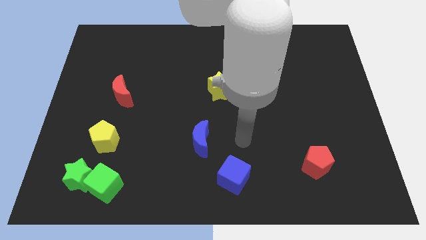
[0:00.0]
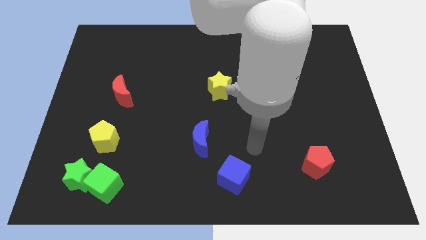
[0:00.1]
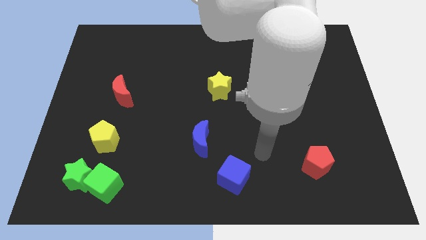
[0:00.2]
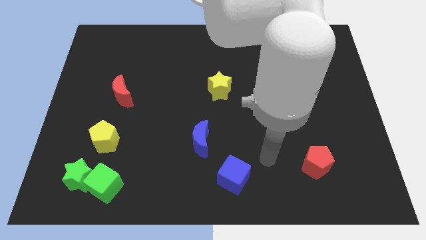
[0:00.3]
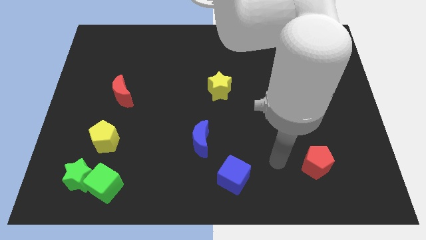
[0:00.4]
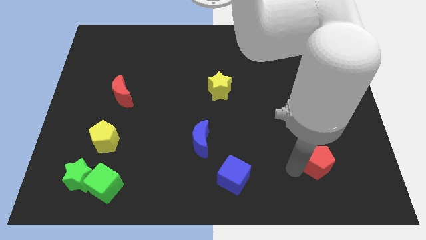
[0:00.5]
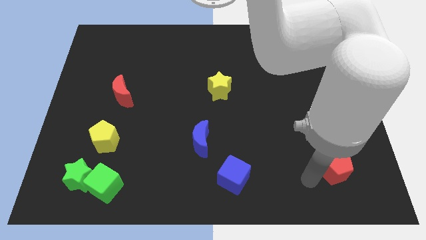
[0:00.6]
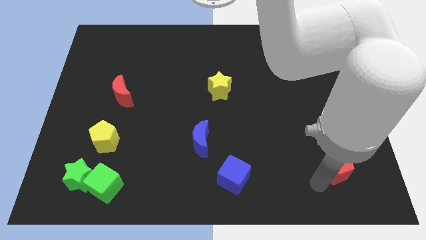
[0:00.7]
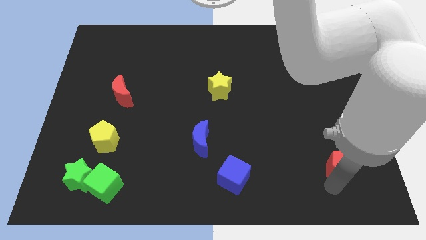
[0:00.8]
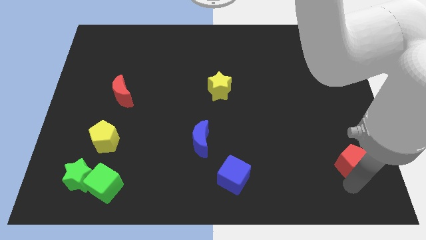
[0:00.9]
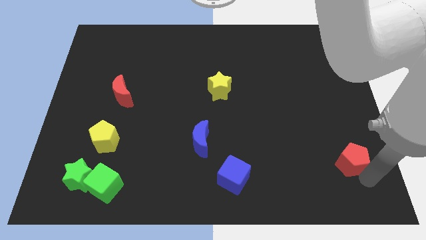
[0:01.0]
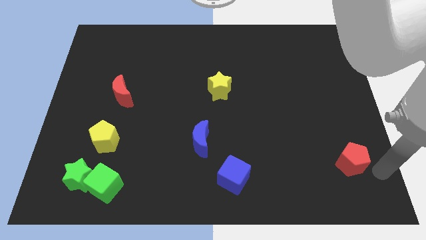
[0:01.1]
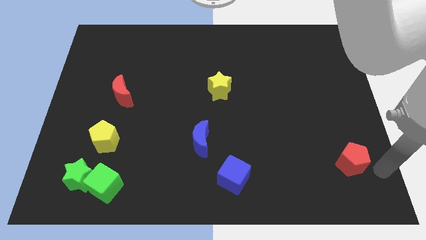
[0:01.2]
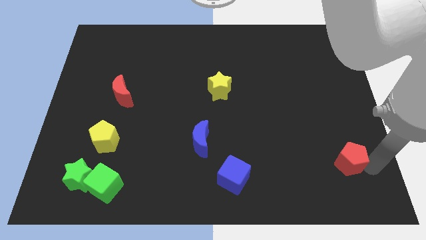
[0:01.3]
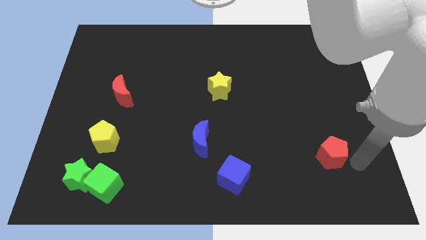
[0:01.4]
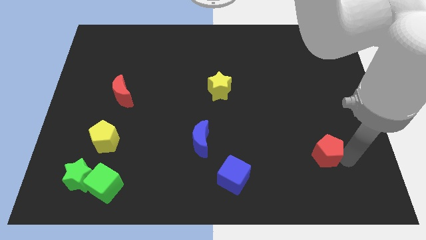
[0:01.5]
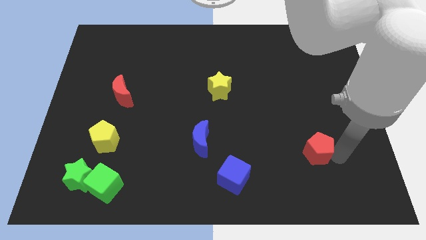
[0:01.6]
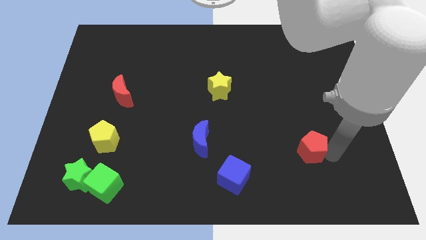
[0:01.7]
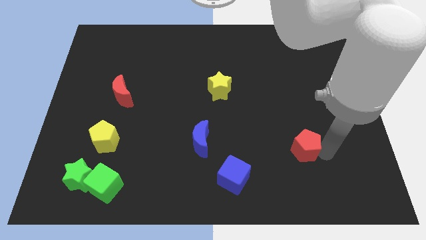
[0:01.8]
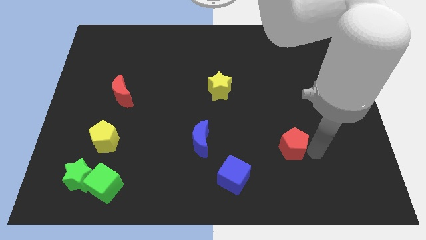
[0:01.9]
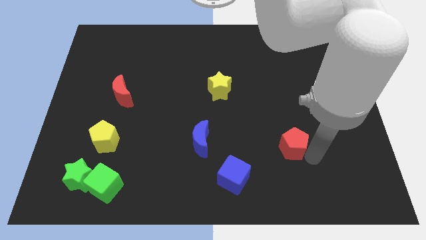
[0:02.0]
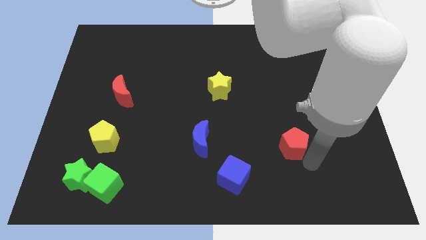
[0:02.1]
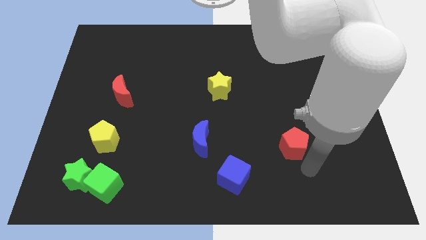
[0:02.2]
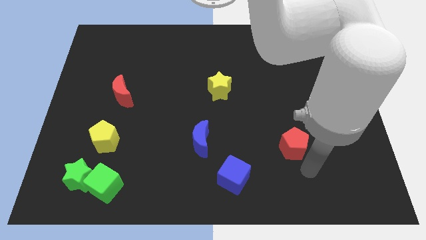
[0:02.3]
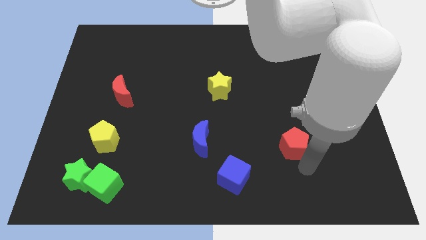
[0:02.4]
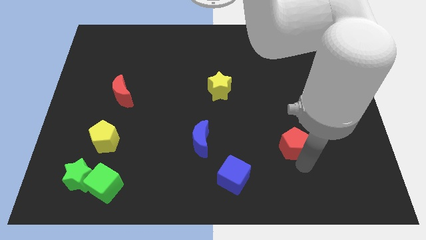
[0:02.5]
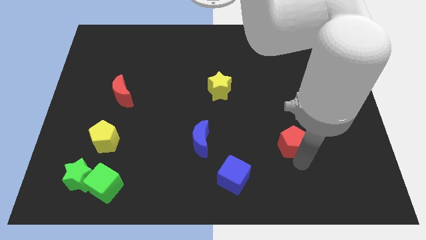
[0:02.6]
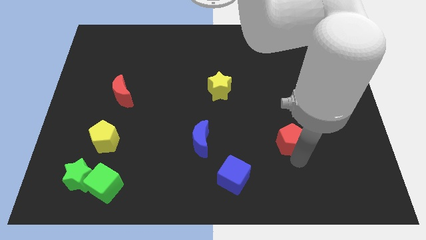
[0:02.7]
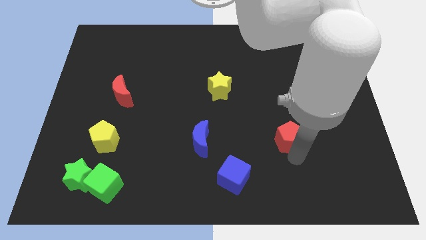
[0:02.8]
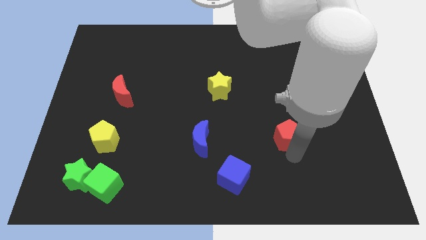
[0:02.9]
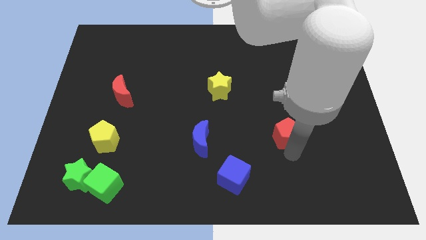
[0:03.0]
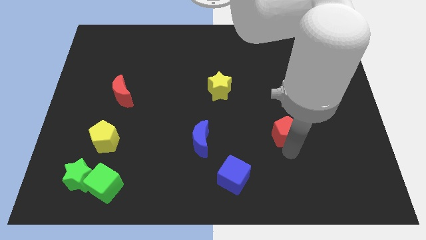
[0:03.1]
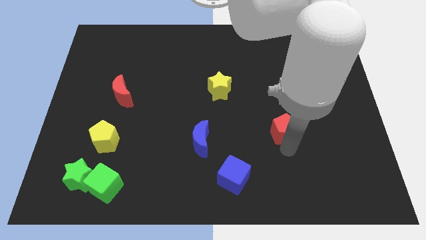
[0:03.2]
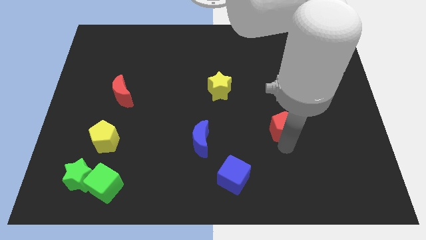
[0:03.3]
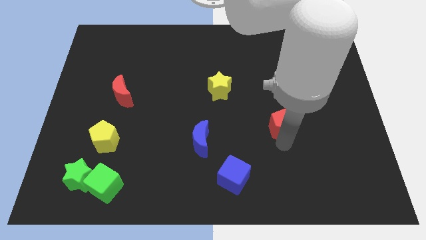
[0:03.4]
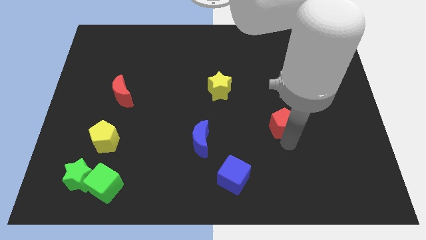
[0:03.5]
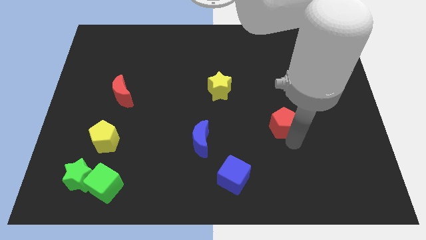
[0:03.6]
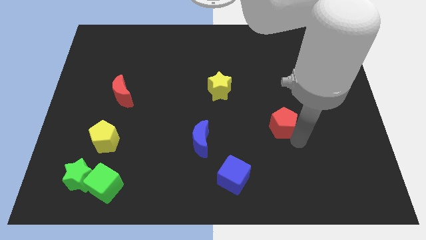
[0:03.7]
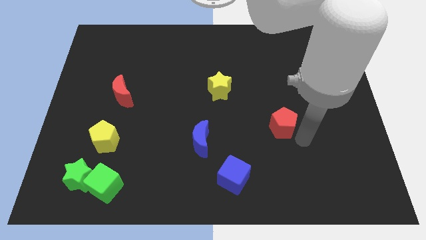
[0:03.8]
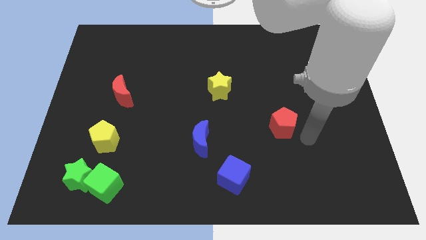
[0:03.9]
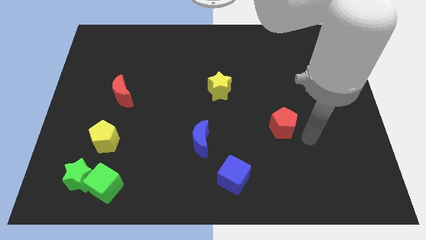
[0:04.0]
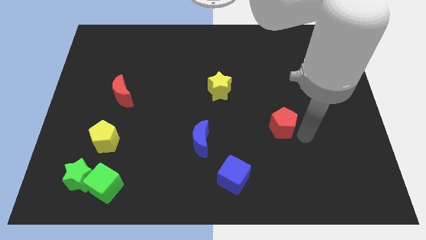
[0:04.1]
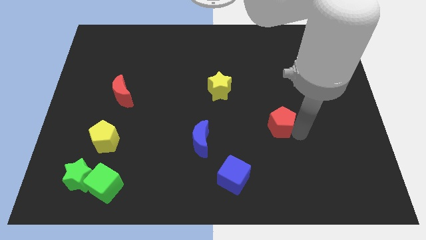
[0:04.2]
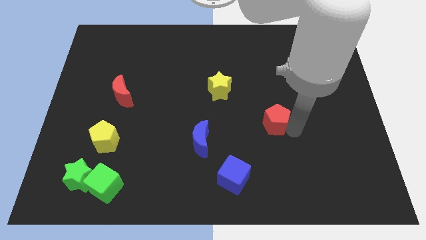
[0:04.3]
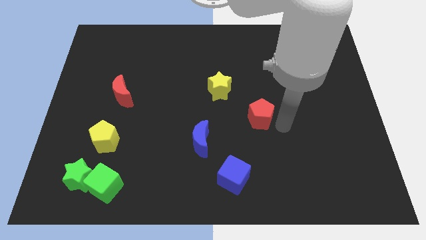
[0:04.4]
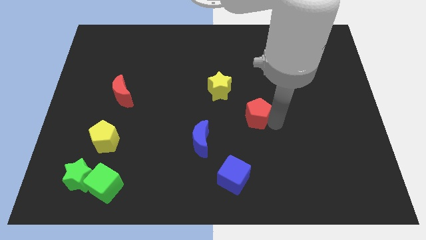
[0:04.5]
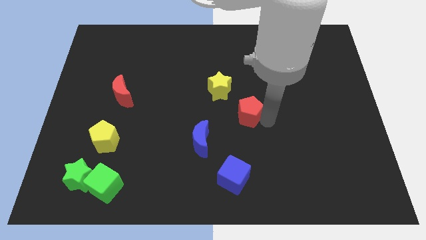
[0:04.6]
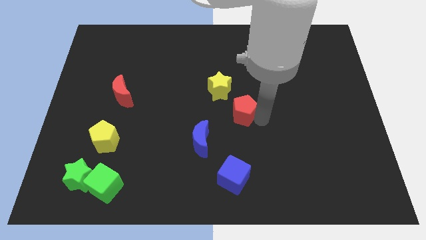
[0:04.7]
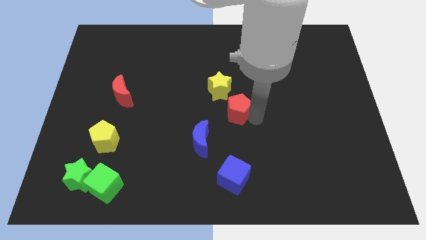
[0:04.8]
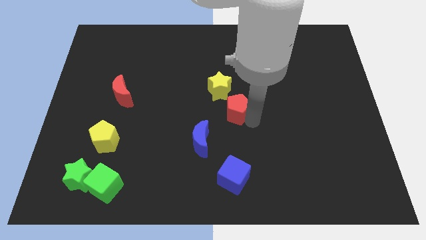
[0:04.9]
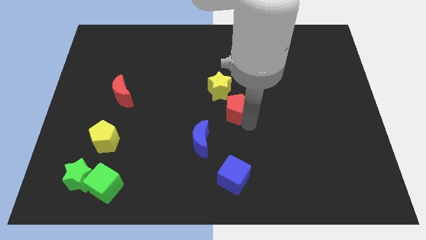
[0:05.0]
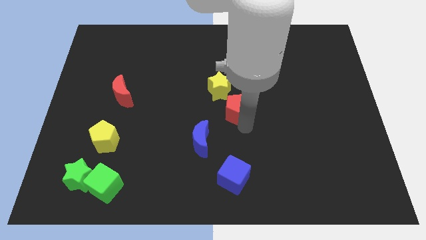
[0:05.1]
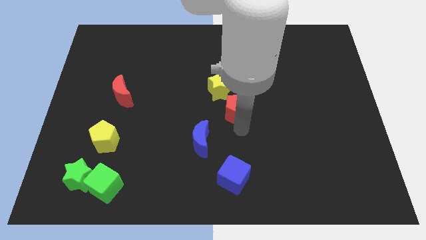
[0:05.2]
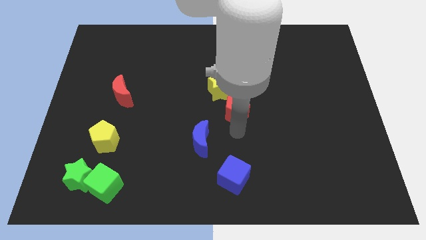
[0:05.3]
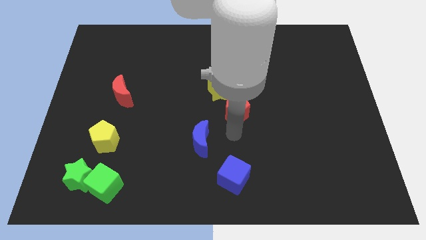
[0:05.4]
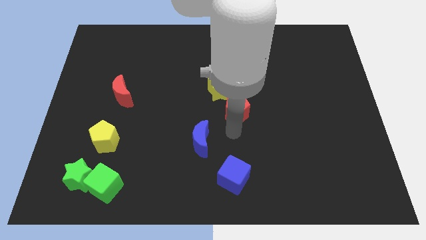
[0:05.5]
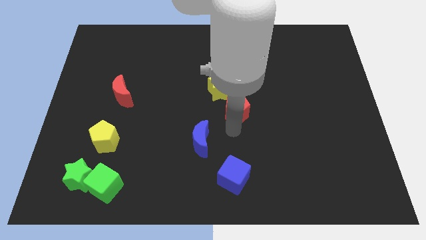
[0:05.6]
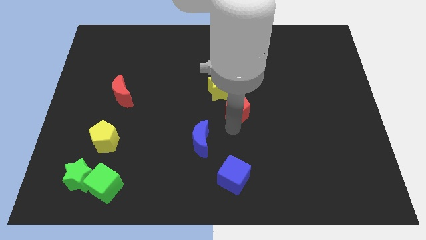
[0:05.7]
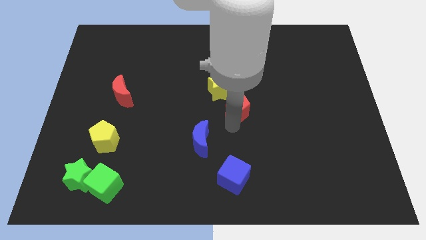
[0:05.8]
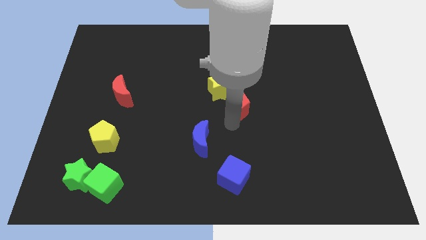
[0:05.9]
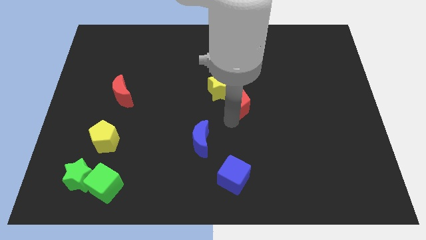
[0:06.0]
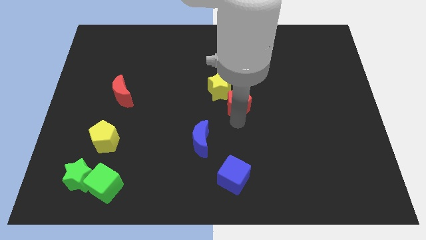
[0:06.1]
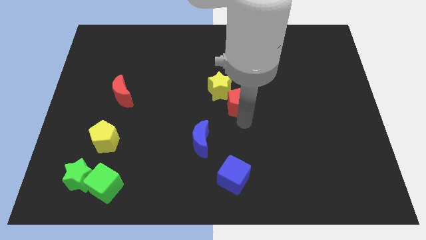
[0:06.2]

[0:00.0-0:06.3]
move the red pentagon close to the yellow star

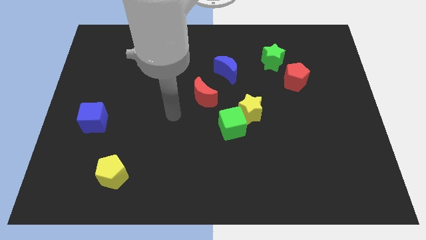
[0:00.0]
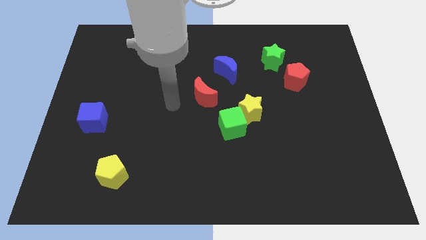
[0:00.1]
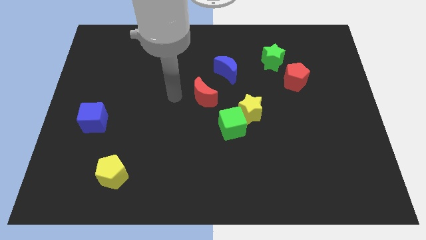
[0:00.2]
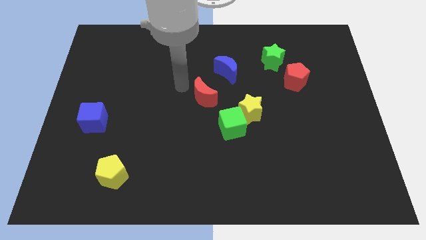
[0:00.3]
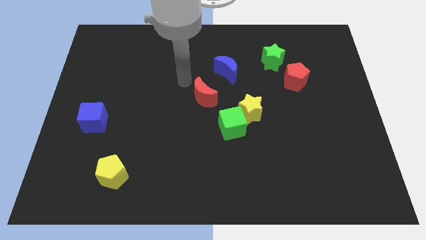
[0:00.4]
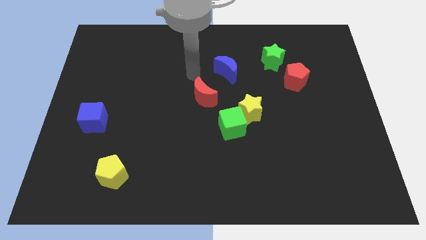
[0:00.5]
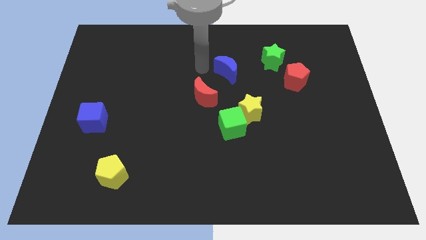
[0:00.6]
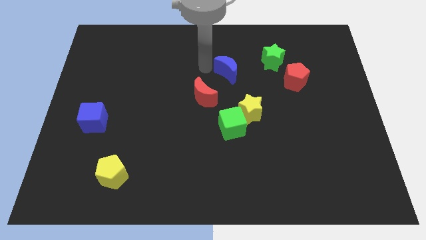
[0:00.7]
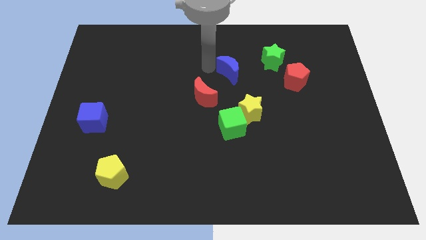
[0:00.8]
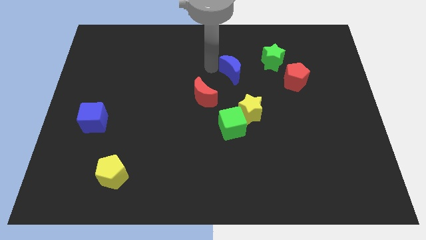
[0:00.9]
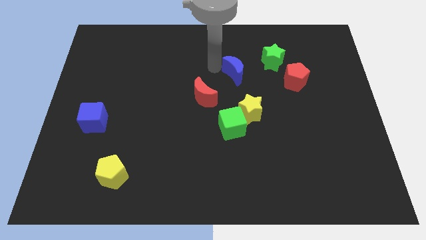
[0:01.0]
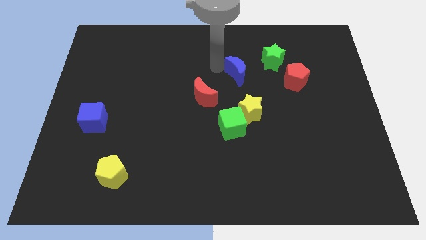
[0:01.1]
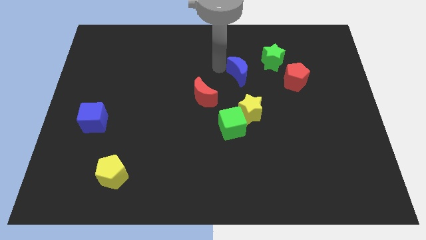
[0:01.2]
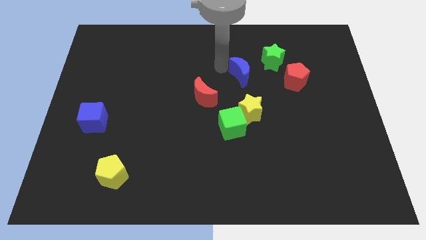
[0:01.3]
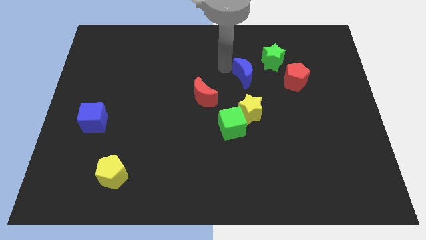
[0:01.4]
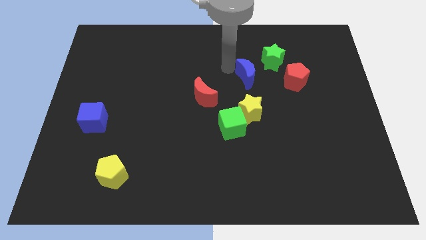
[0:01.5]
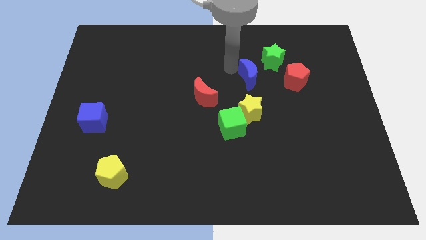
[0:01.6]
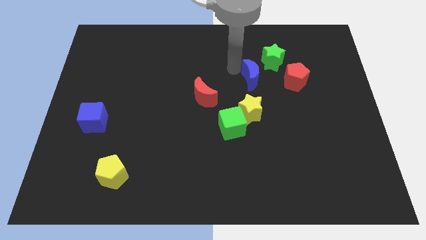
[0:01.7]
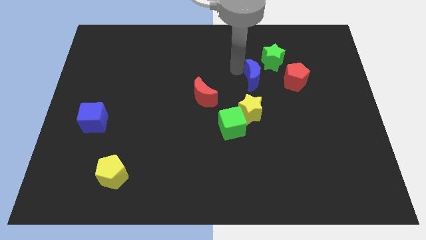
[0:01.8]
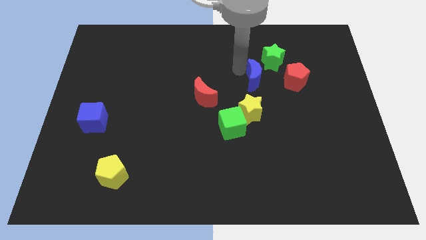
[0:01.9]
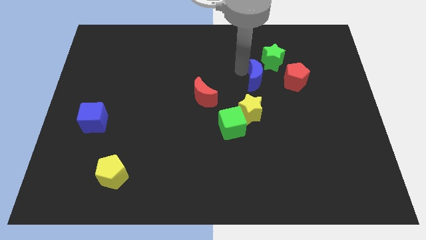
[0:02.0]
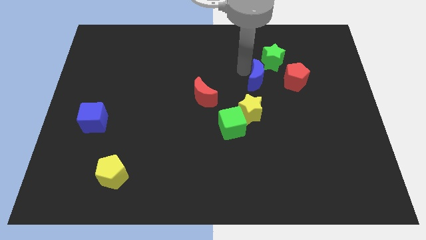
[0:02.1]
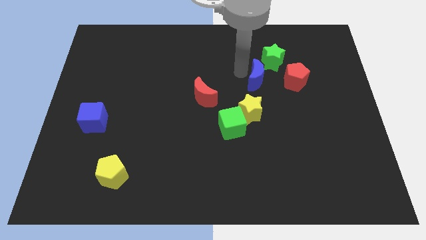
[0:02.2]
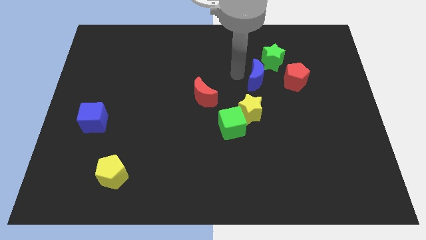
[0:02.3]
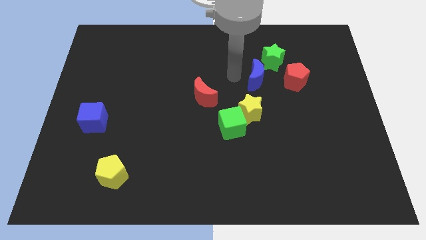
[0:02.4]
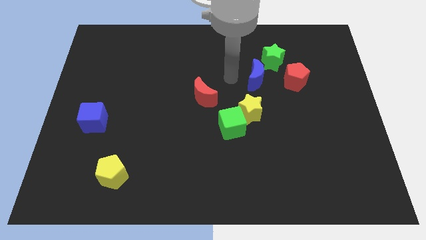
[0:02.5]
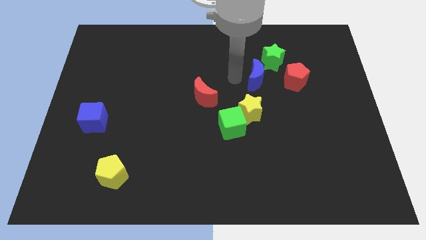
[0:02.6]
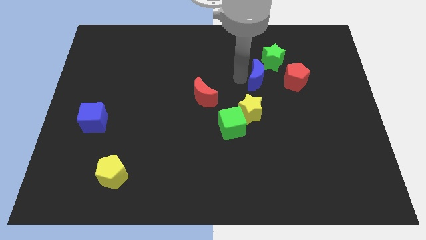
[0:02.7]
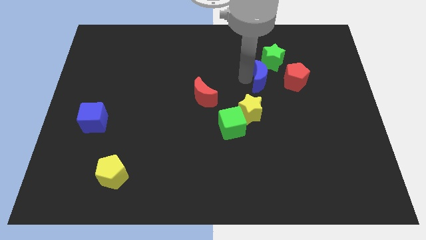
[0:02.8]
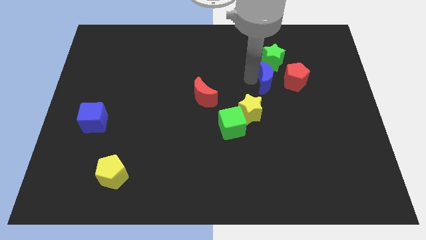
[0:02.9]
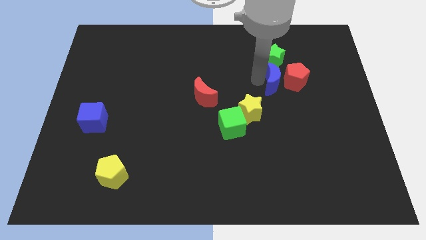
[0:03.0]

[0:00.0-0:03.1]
push the blue moon next to the red pentagon
